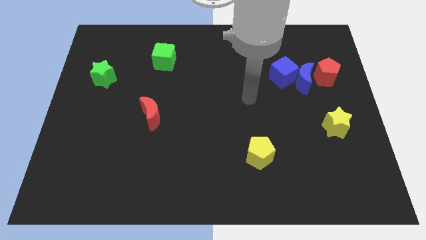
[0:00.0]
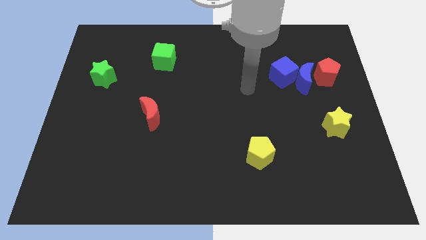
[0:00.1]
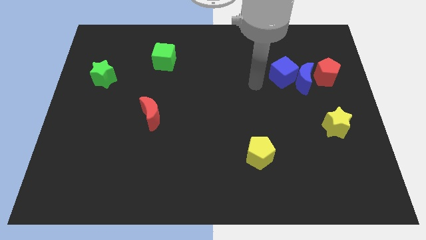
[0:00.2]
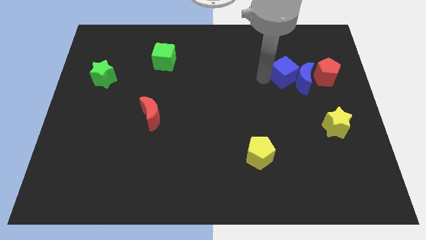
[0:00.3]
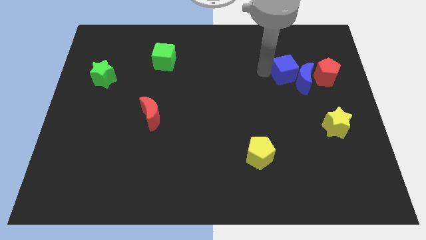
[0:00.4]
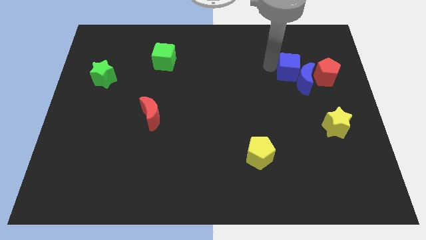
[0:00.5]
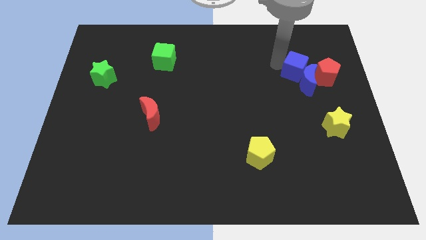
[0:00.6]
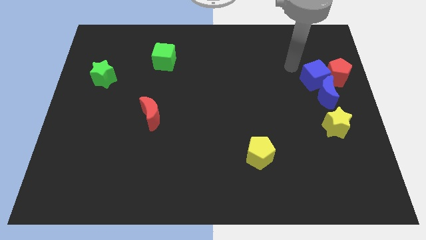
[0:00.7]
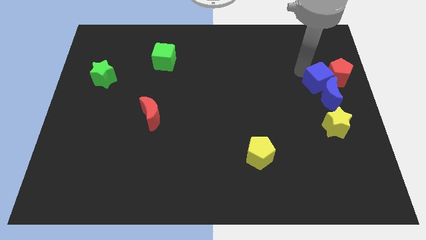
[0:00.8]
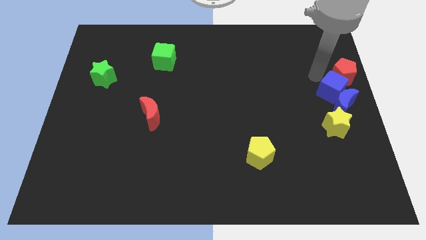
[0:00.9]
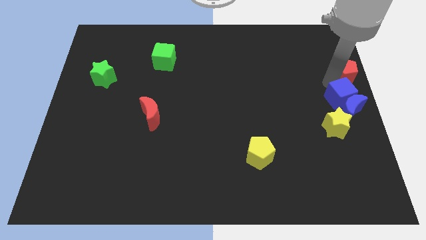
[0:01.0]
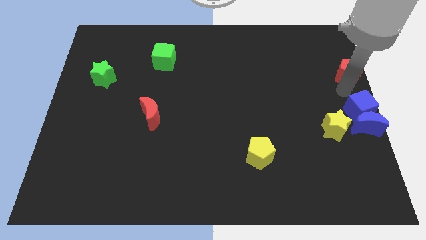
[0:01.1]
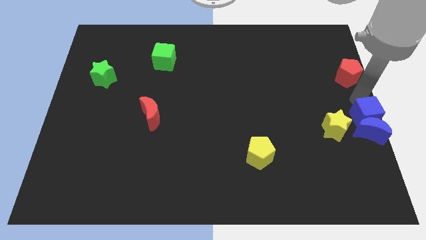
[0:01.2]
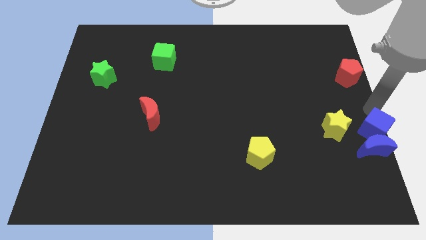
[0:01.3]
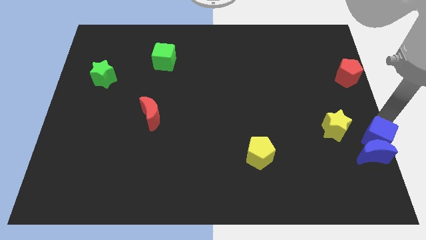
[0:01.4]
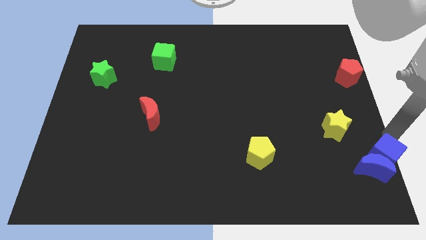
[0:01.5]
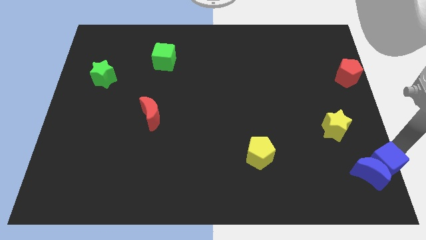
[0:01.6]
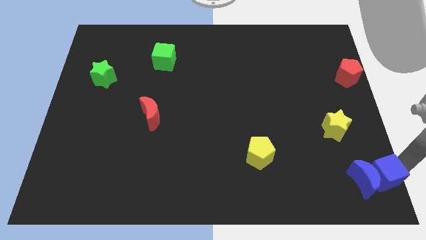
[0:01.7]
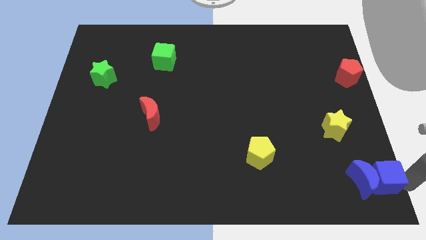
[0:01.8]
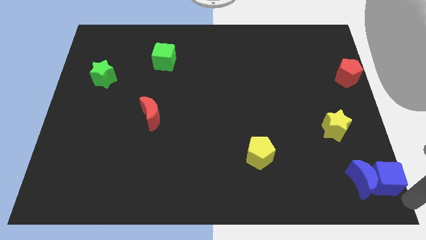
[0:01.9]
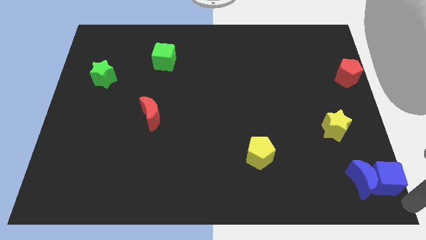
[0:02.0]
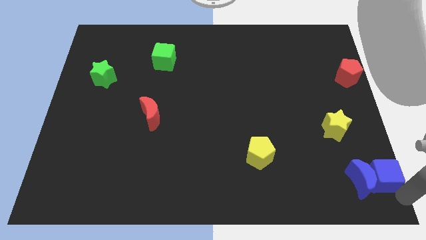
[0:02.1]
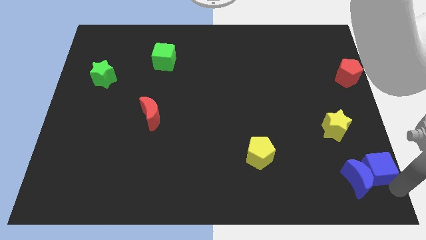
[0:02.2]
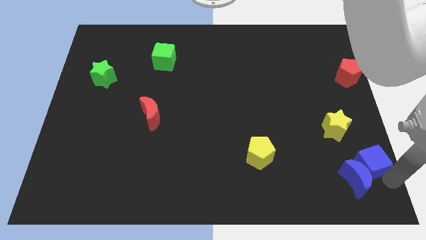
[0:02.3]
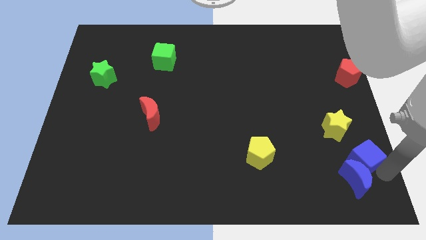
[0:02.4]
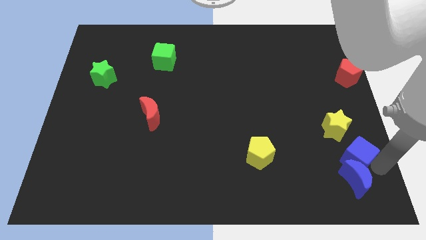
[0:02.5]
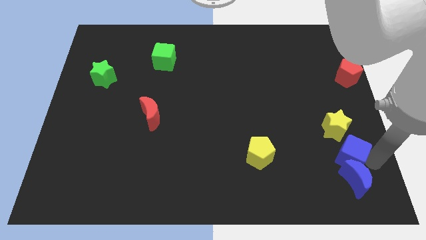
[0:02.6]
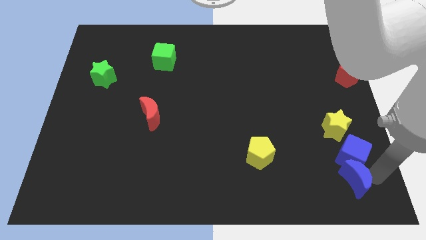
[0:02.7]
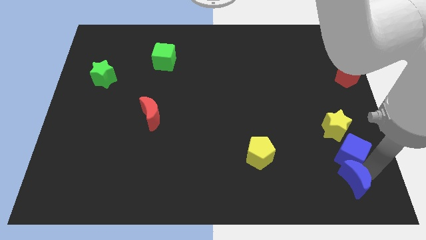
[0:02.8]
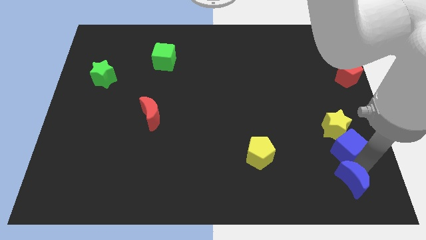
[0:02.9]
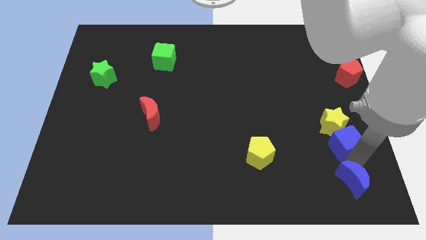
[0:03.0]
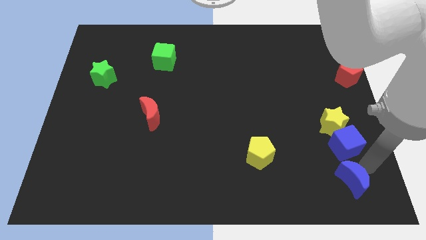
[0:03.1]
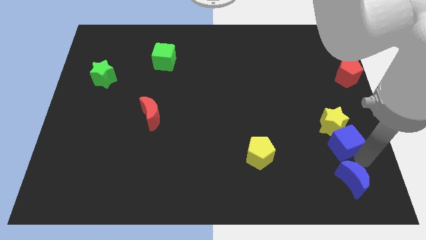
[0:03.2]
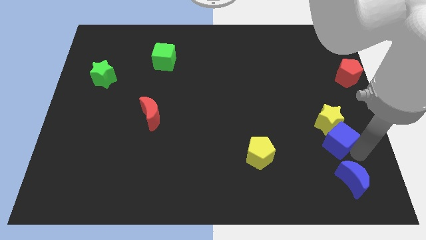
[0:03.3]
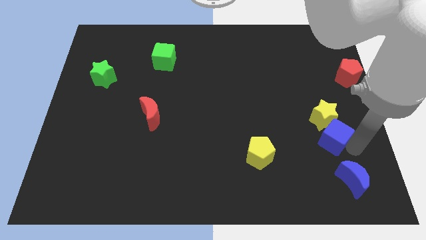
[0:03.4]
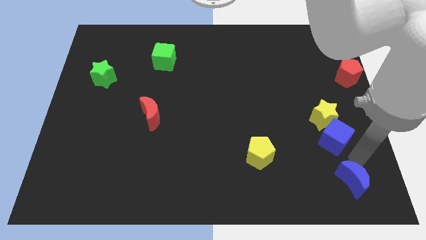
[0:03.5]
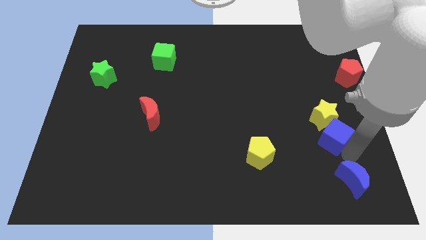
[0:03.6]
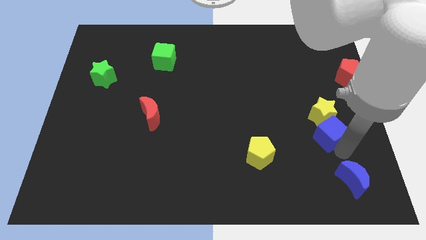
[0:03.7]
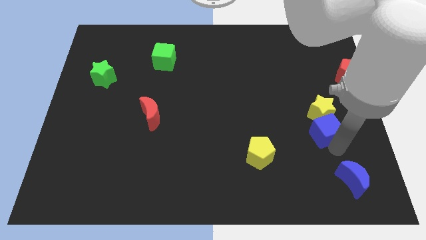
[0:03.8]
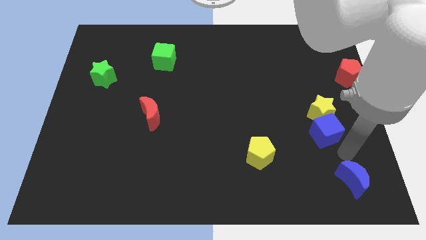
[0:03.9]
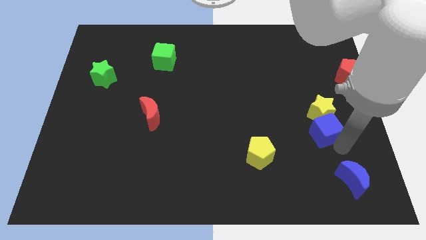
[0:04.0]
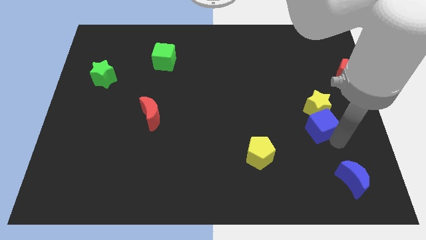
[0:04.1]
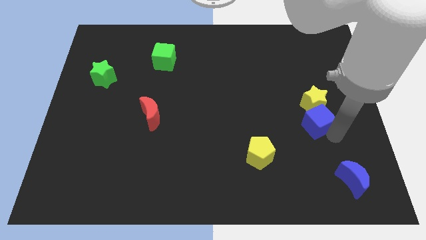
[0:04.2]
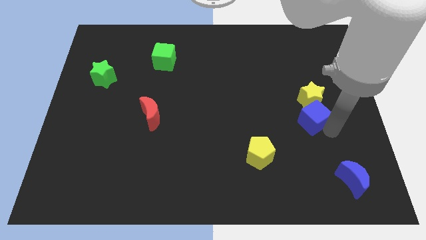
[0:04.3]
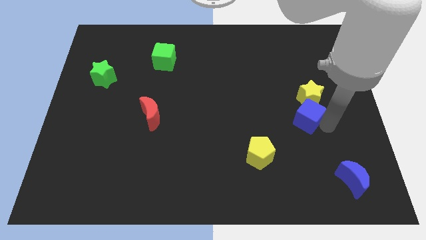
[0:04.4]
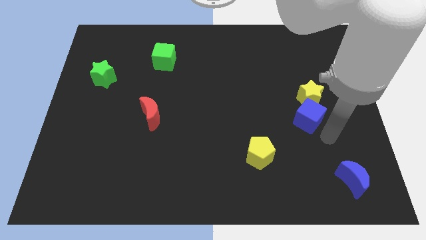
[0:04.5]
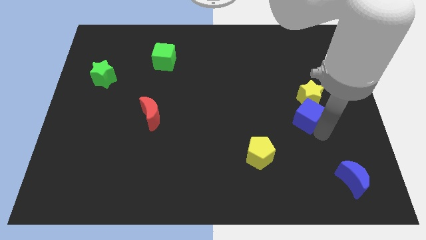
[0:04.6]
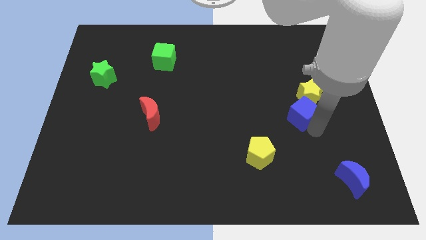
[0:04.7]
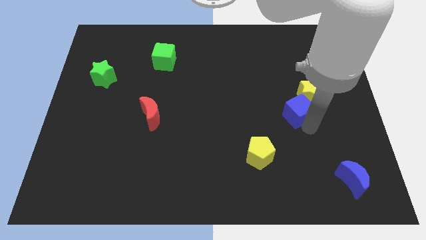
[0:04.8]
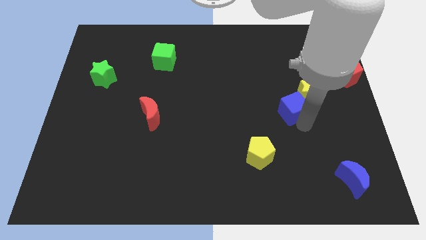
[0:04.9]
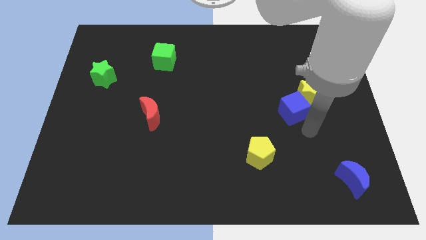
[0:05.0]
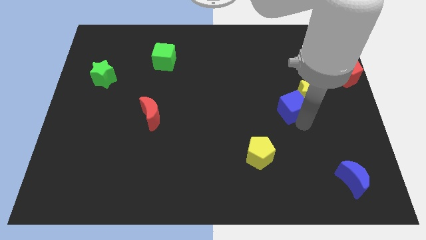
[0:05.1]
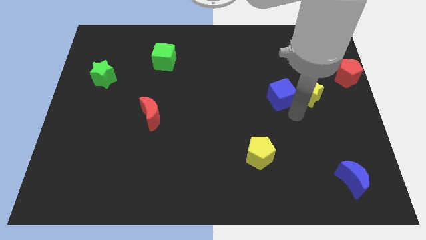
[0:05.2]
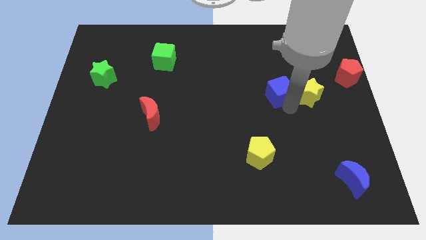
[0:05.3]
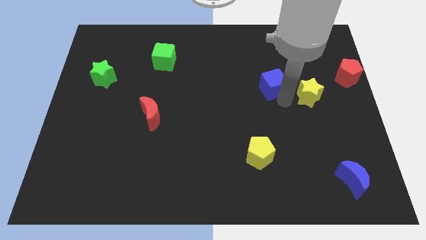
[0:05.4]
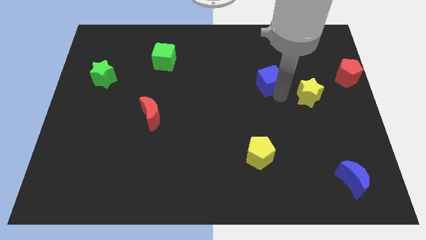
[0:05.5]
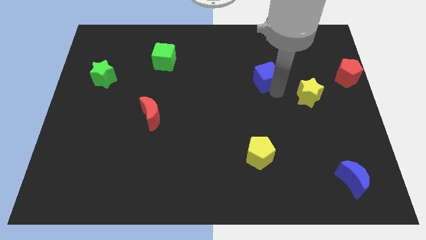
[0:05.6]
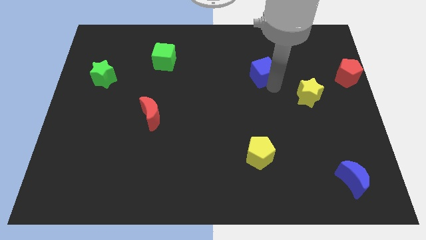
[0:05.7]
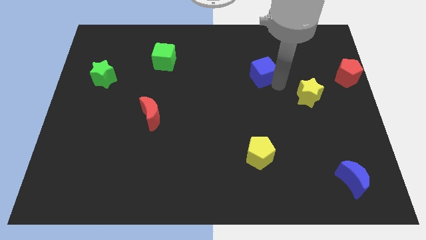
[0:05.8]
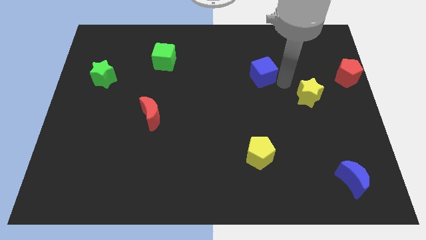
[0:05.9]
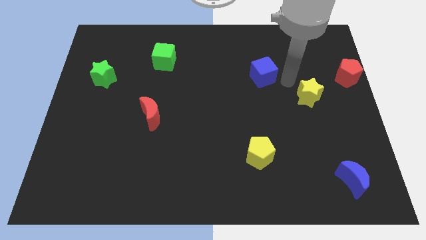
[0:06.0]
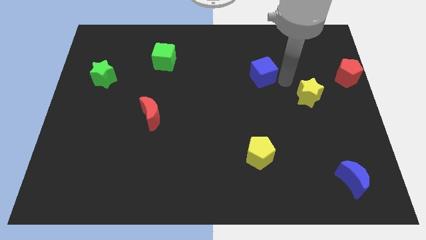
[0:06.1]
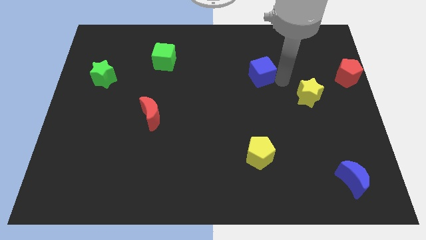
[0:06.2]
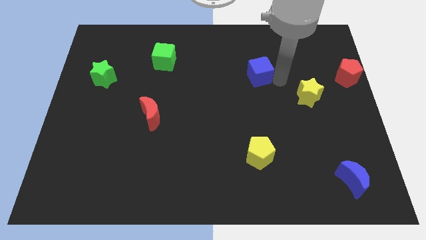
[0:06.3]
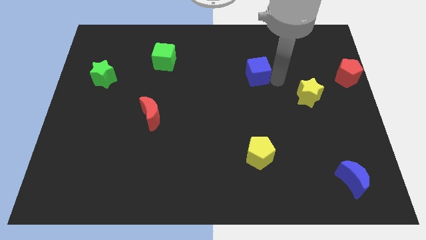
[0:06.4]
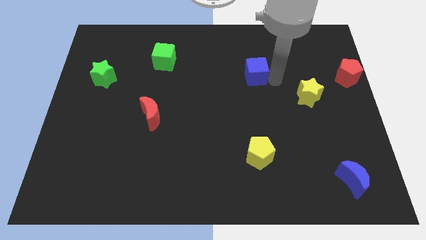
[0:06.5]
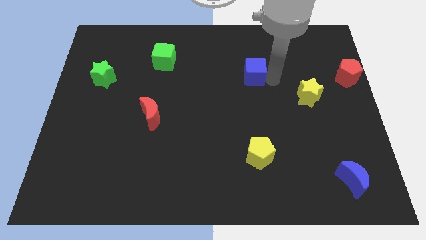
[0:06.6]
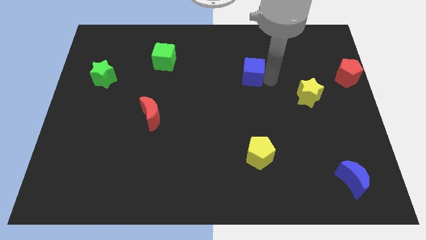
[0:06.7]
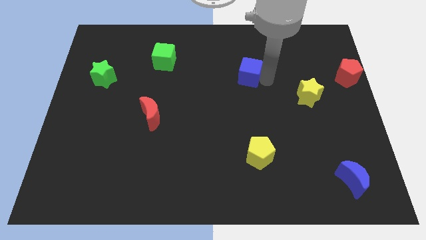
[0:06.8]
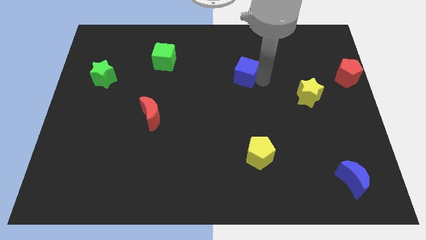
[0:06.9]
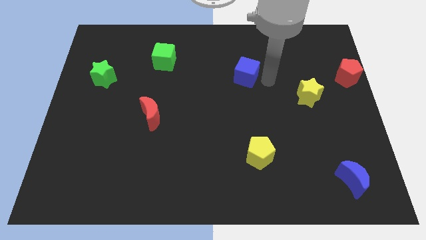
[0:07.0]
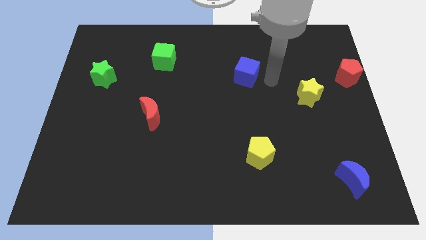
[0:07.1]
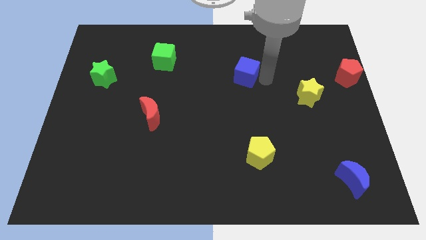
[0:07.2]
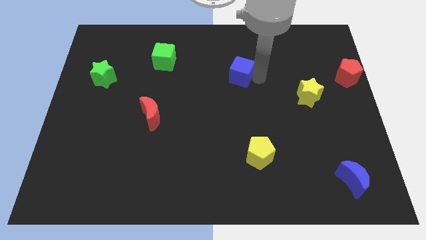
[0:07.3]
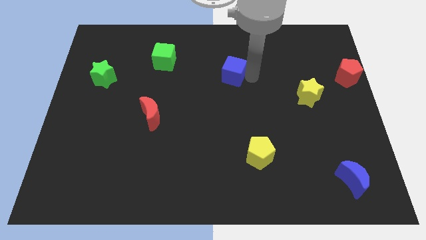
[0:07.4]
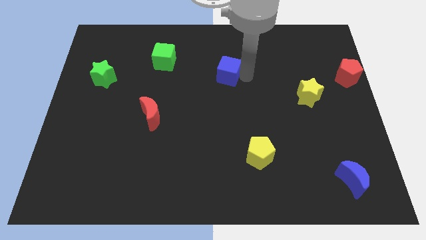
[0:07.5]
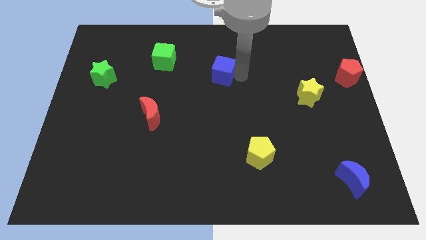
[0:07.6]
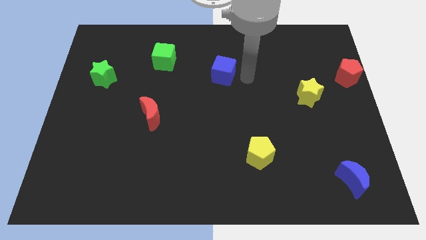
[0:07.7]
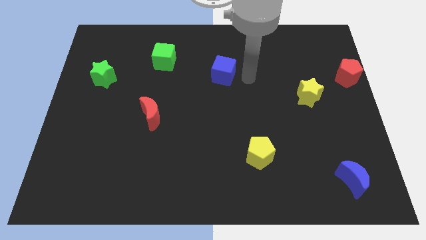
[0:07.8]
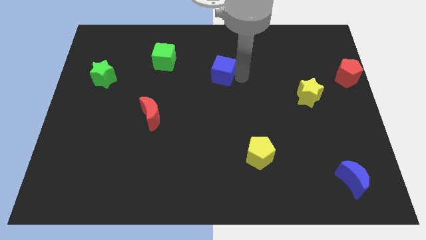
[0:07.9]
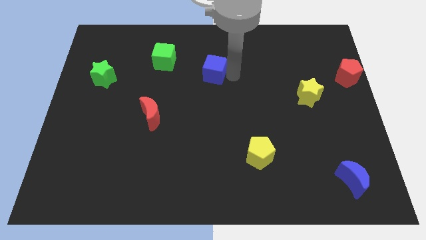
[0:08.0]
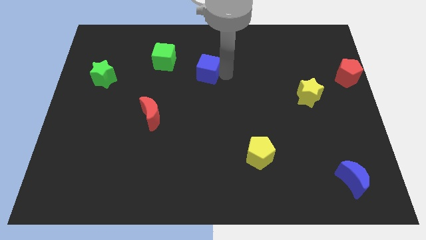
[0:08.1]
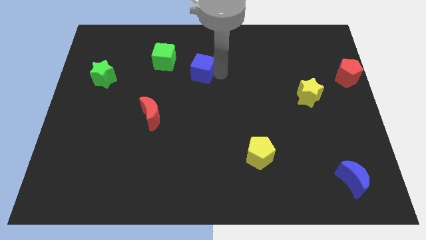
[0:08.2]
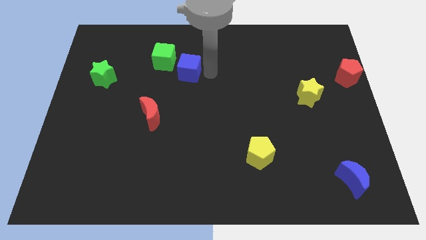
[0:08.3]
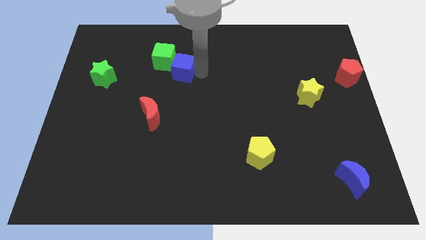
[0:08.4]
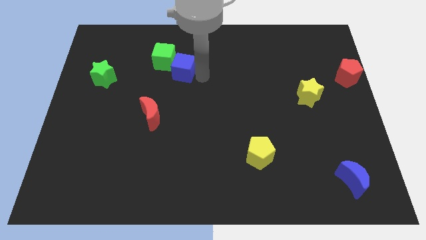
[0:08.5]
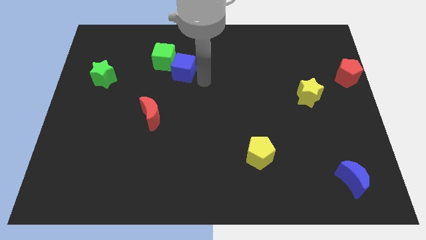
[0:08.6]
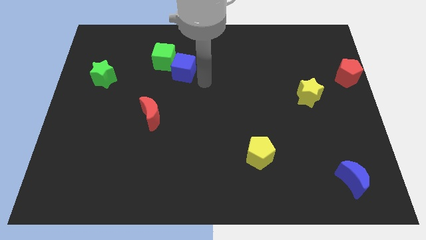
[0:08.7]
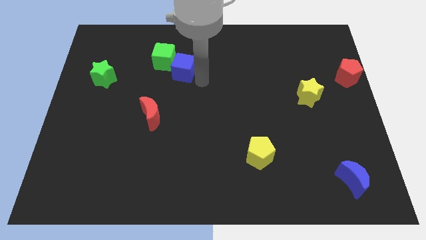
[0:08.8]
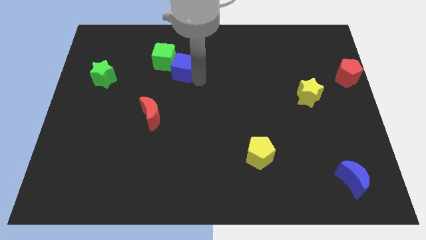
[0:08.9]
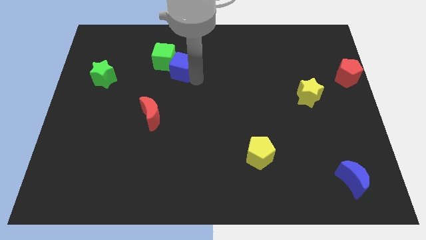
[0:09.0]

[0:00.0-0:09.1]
push the blue cube to the green cube
